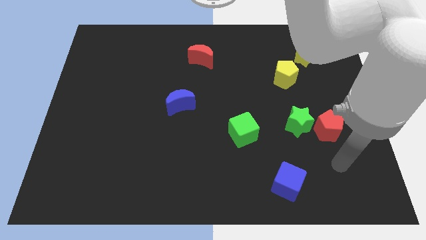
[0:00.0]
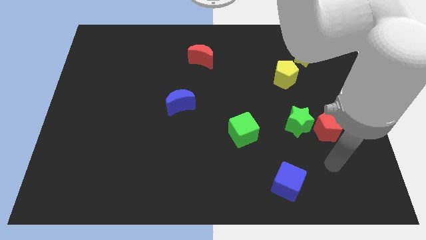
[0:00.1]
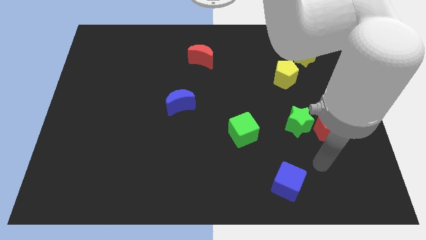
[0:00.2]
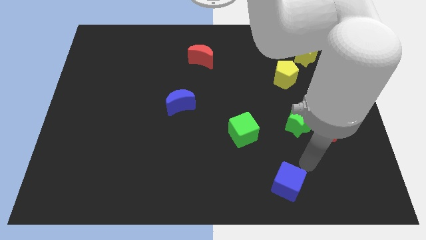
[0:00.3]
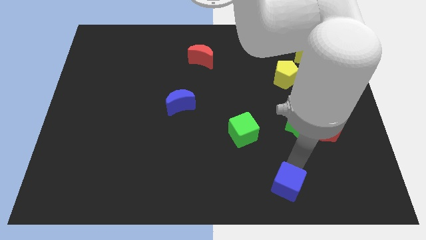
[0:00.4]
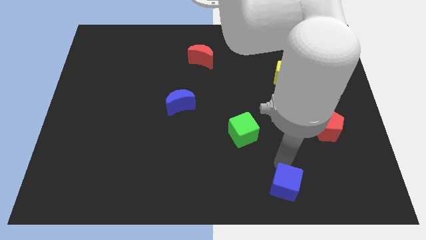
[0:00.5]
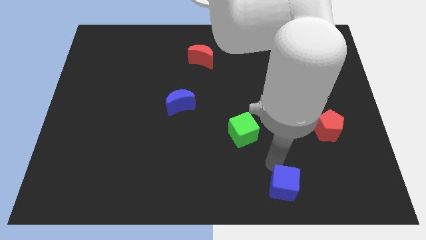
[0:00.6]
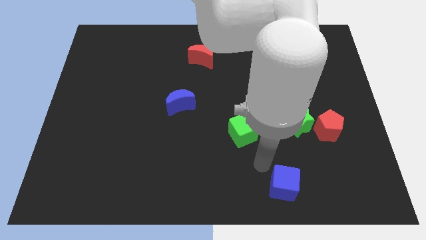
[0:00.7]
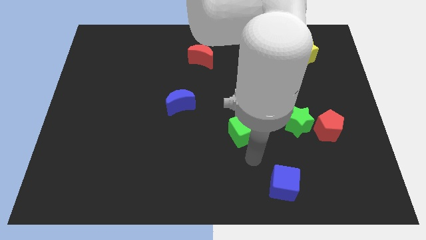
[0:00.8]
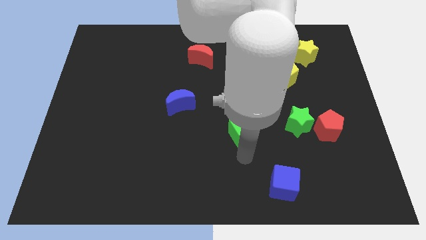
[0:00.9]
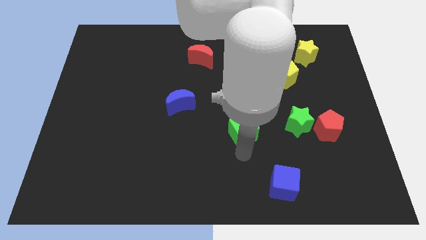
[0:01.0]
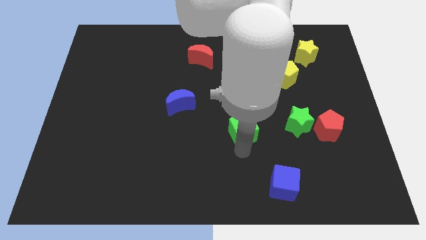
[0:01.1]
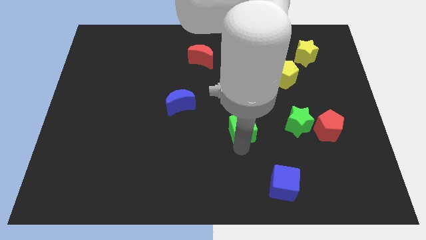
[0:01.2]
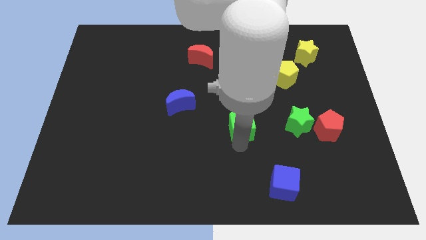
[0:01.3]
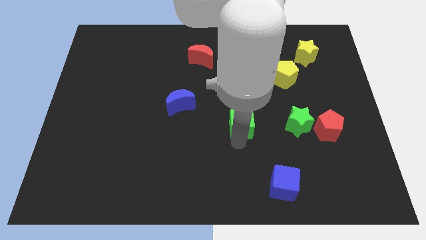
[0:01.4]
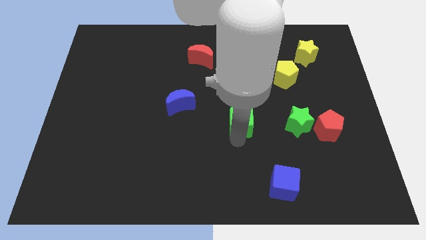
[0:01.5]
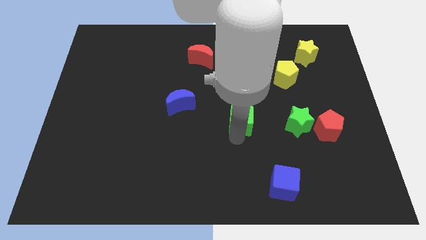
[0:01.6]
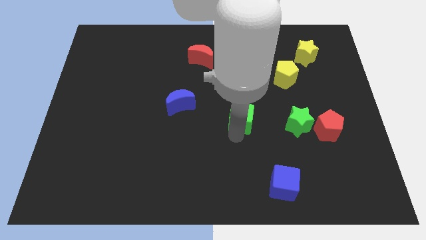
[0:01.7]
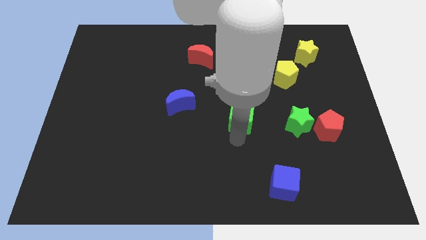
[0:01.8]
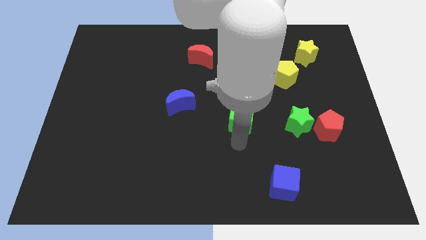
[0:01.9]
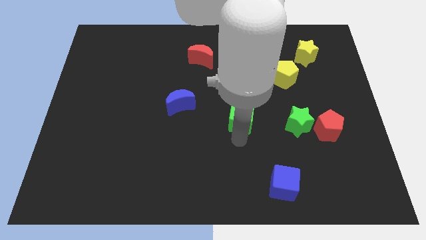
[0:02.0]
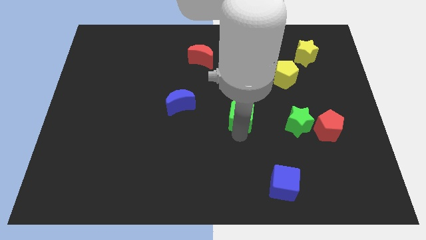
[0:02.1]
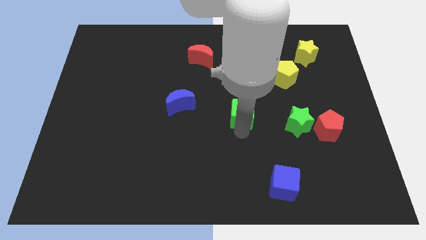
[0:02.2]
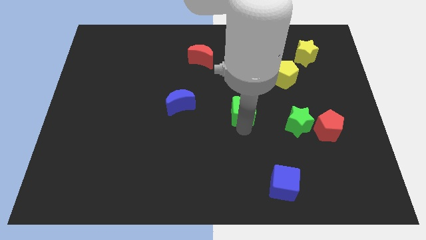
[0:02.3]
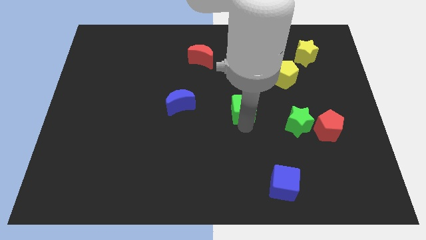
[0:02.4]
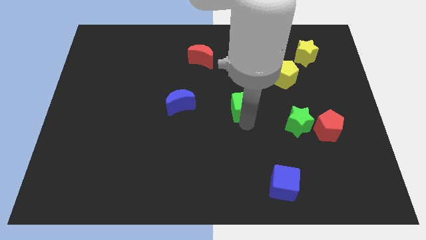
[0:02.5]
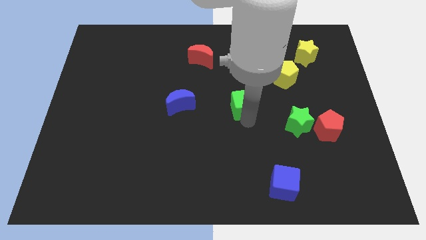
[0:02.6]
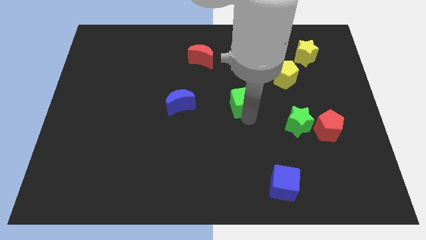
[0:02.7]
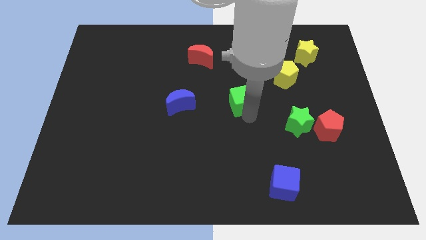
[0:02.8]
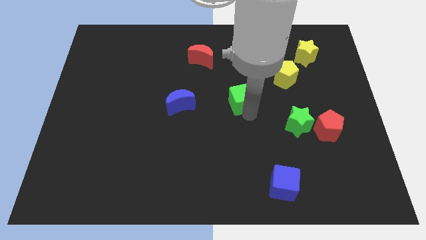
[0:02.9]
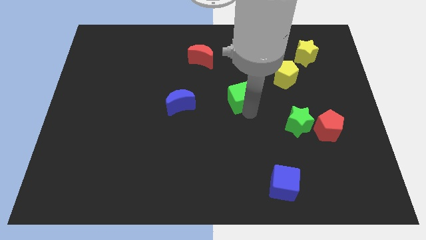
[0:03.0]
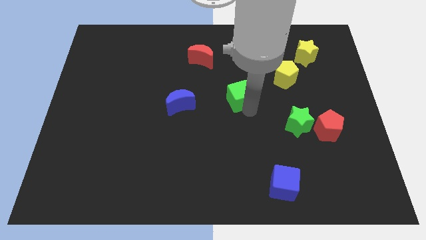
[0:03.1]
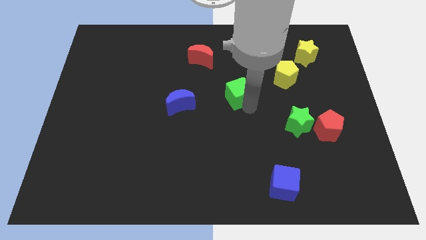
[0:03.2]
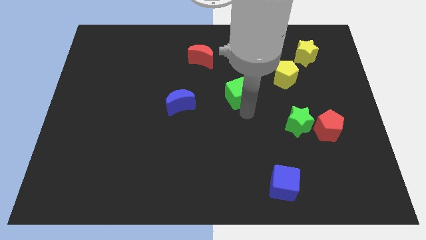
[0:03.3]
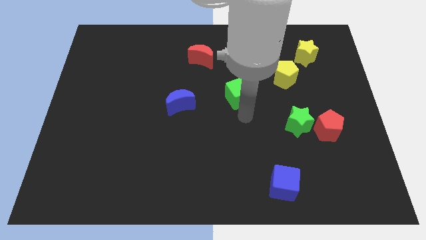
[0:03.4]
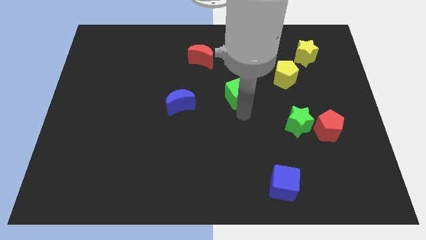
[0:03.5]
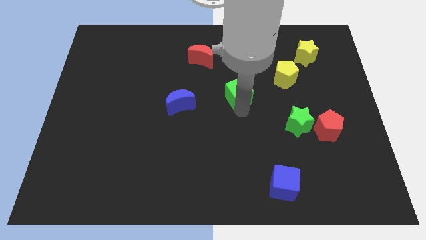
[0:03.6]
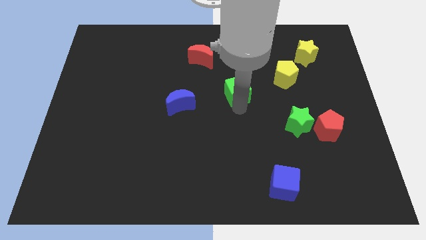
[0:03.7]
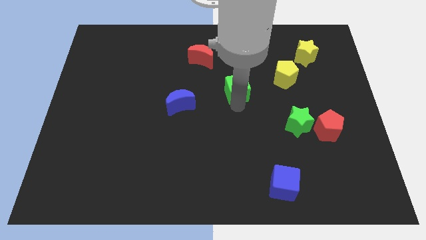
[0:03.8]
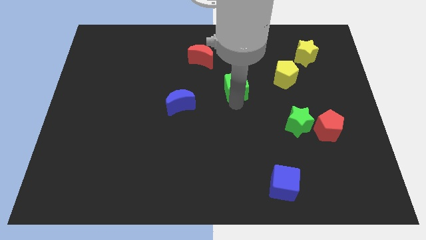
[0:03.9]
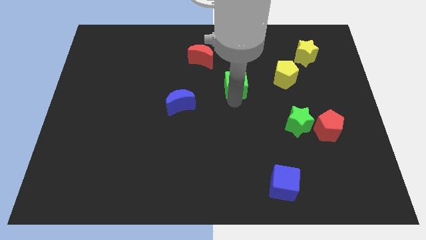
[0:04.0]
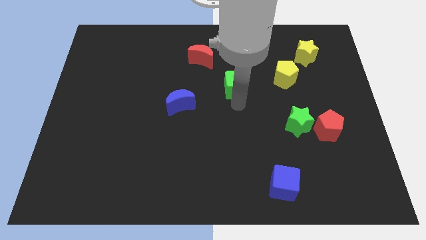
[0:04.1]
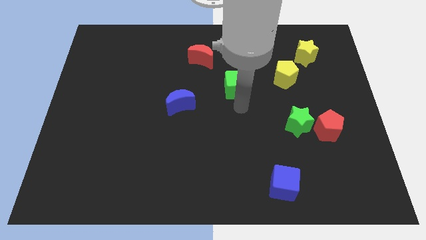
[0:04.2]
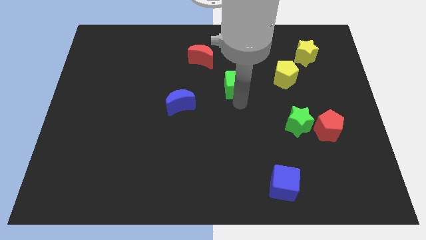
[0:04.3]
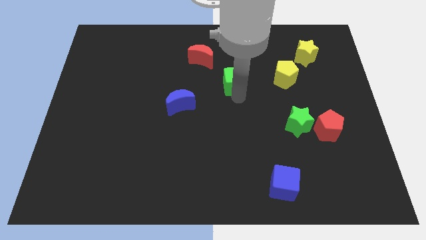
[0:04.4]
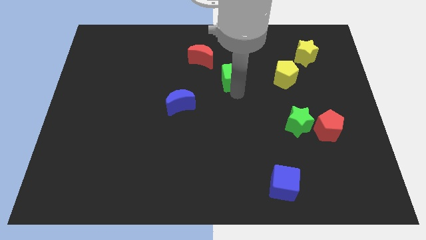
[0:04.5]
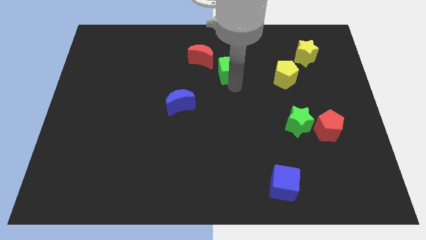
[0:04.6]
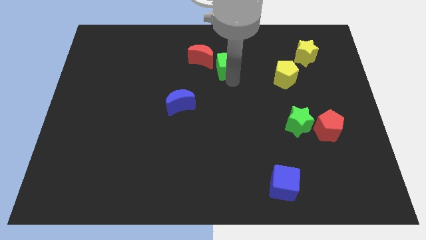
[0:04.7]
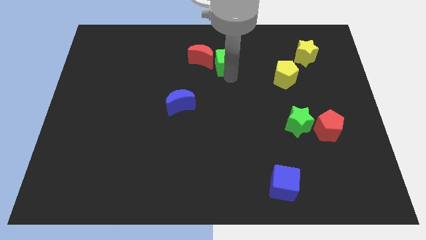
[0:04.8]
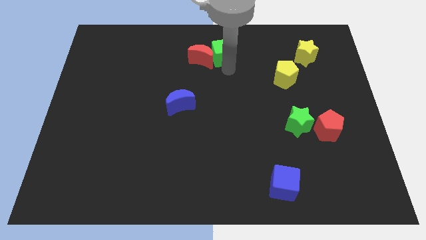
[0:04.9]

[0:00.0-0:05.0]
push the green cube to the top side

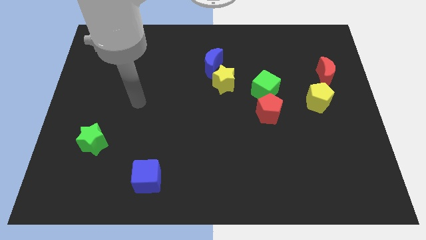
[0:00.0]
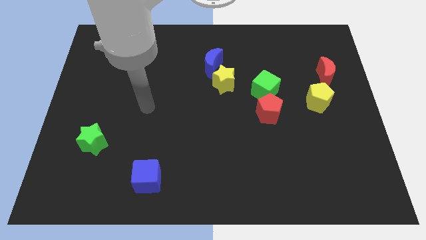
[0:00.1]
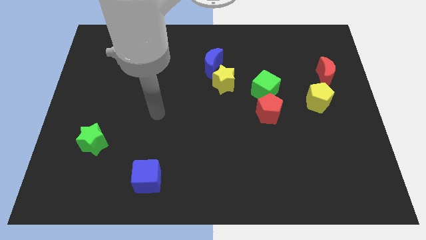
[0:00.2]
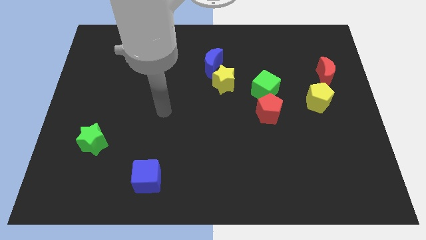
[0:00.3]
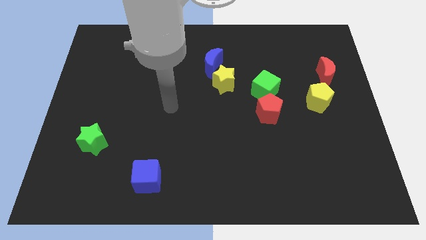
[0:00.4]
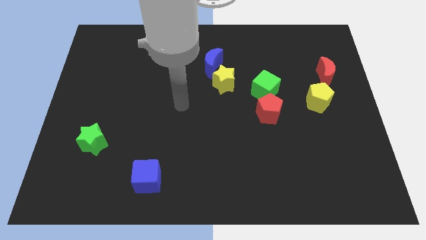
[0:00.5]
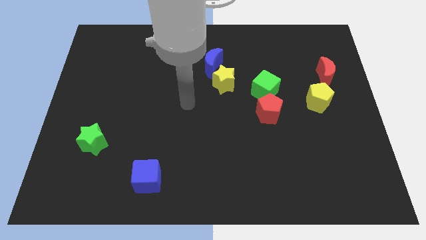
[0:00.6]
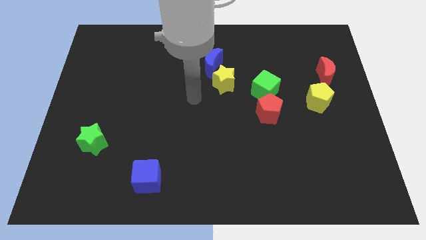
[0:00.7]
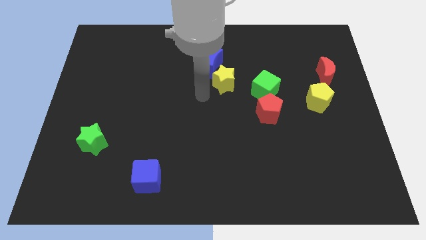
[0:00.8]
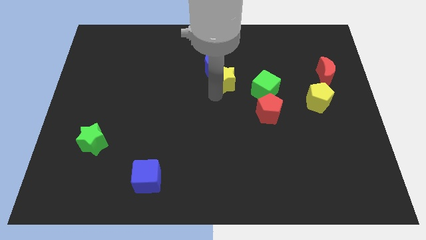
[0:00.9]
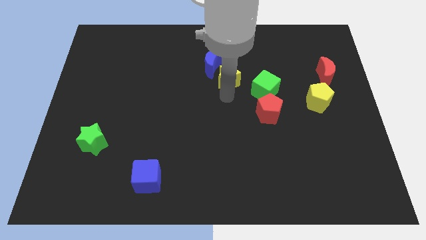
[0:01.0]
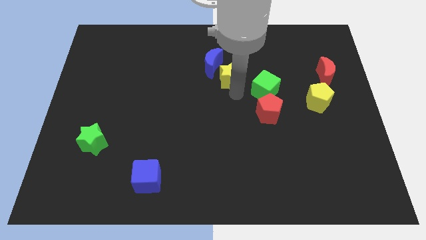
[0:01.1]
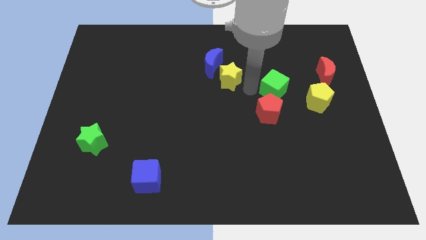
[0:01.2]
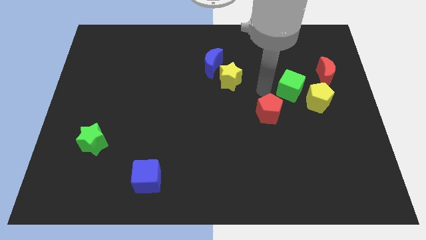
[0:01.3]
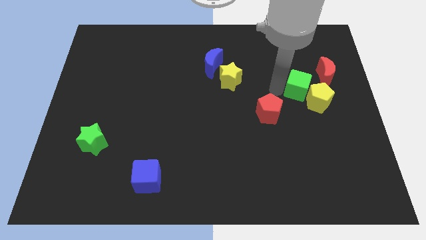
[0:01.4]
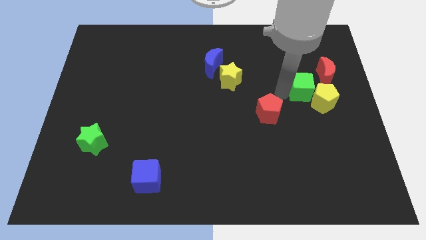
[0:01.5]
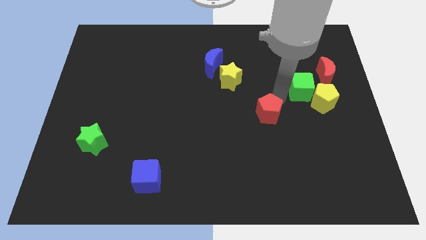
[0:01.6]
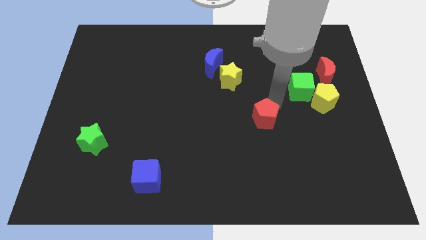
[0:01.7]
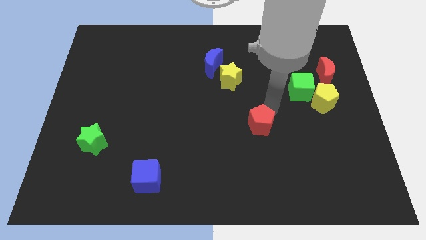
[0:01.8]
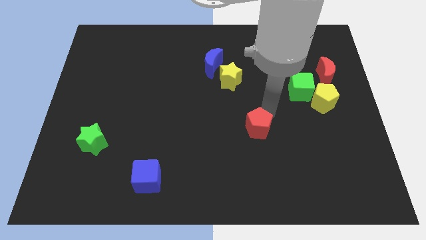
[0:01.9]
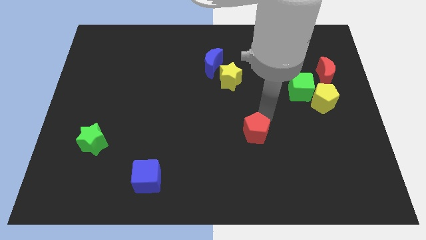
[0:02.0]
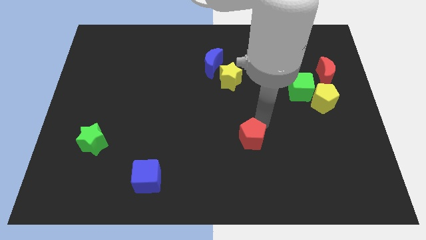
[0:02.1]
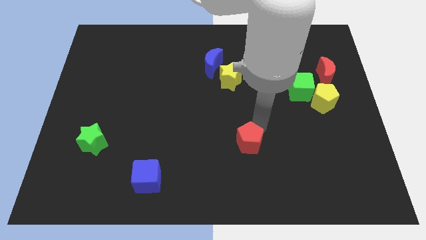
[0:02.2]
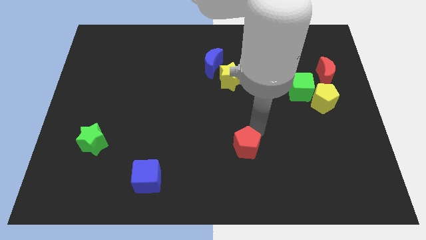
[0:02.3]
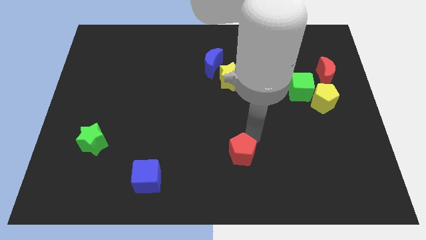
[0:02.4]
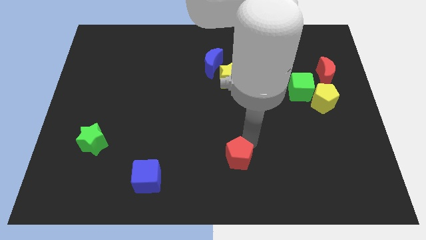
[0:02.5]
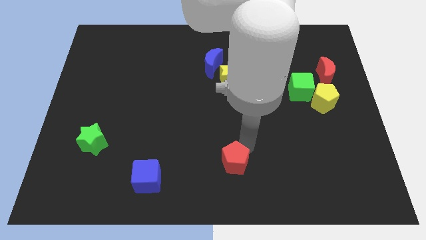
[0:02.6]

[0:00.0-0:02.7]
move the red pentagon to the bottom
